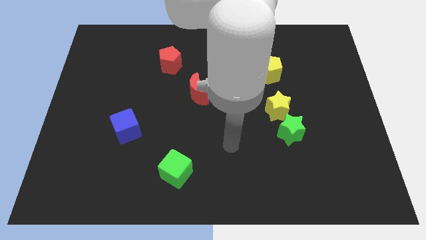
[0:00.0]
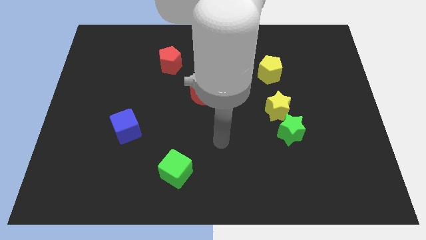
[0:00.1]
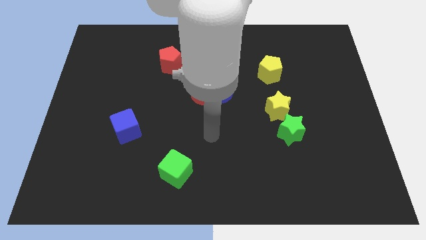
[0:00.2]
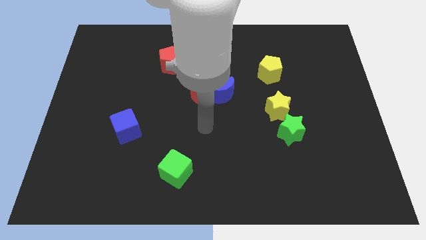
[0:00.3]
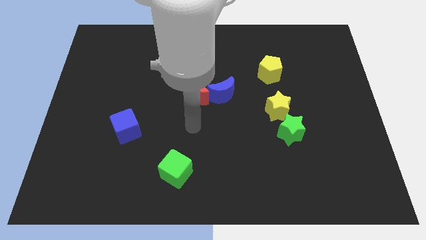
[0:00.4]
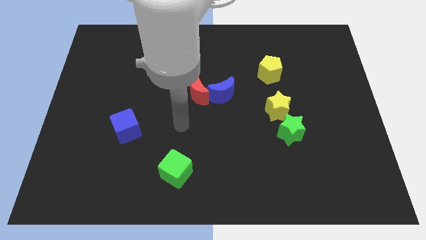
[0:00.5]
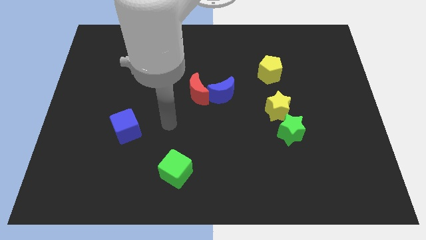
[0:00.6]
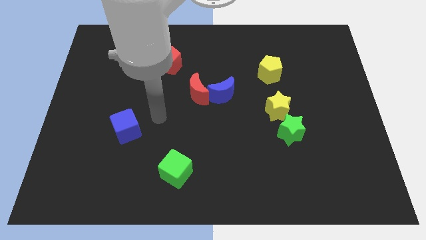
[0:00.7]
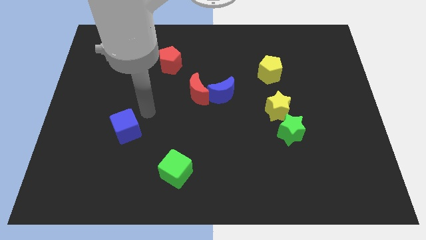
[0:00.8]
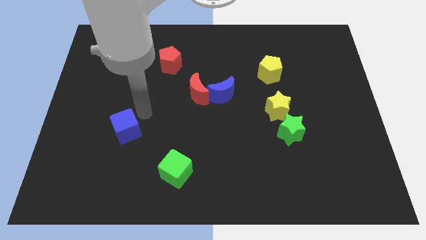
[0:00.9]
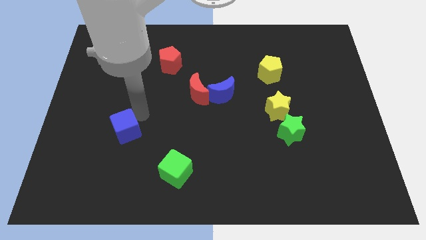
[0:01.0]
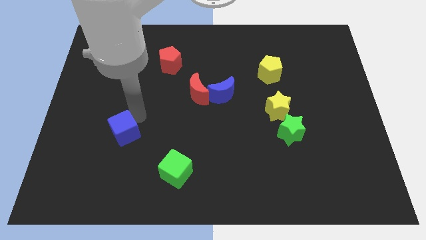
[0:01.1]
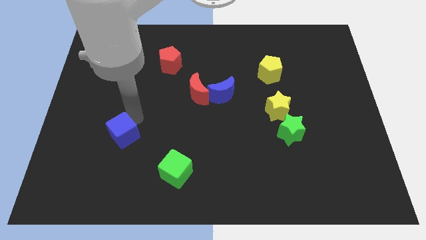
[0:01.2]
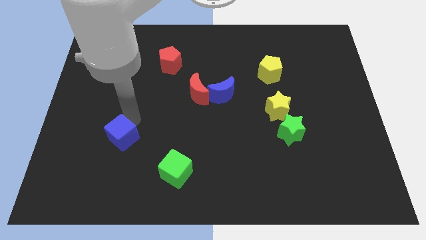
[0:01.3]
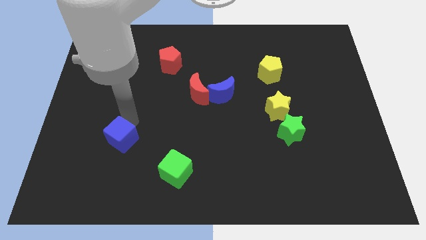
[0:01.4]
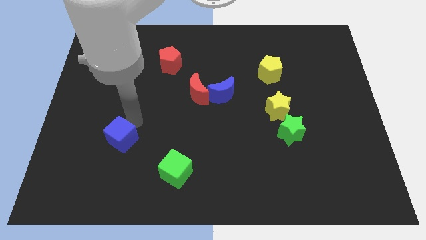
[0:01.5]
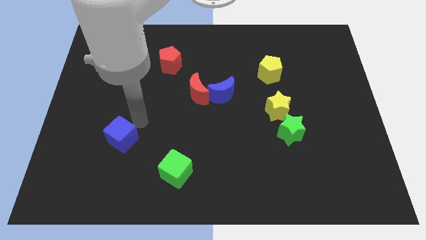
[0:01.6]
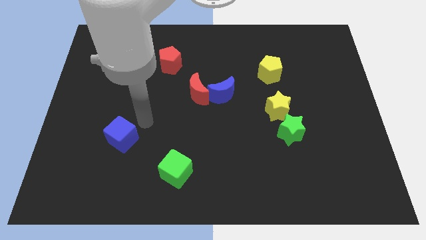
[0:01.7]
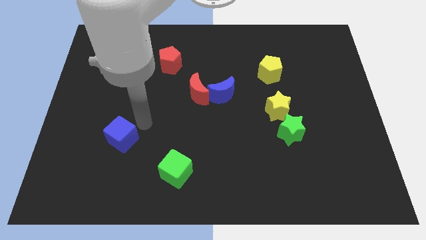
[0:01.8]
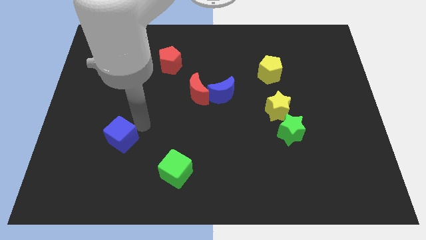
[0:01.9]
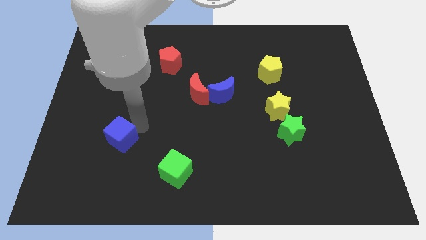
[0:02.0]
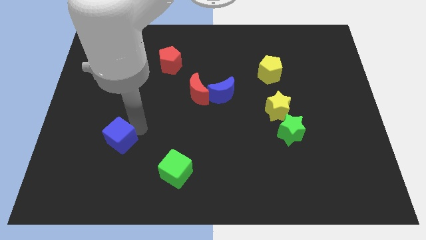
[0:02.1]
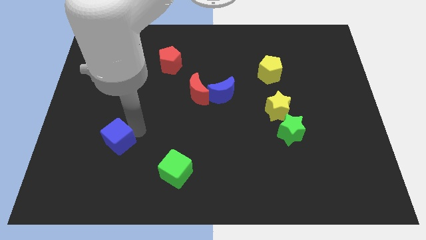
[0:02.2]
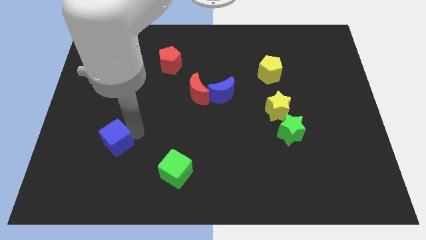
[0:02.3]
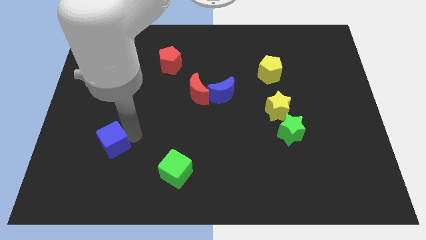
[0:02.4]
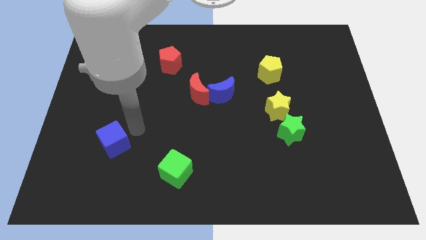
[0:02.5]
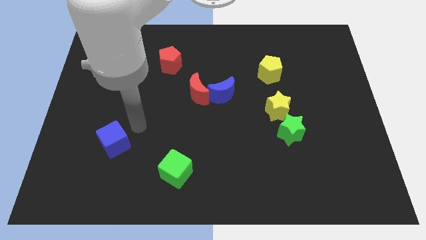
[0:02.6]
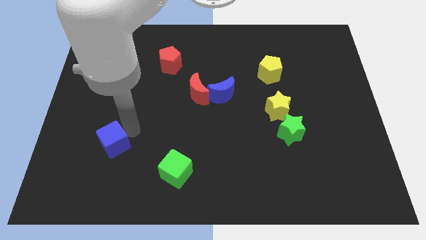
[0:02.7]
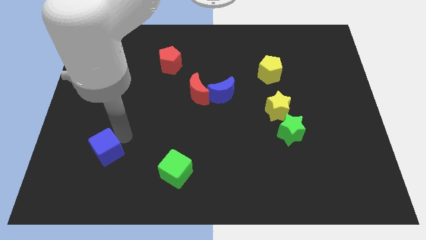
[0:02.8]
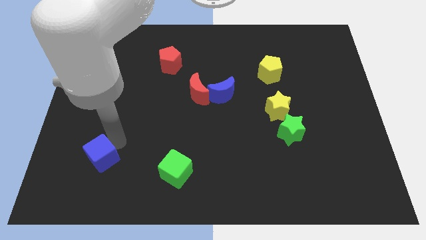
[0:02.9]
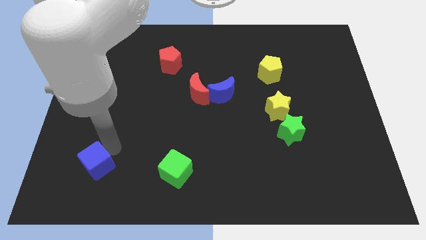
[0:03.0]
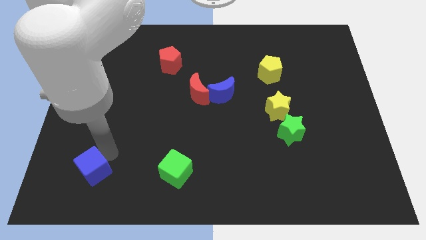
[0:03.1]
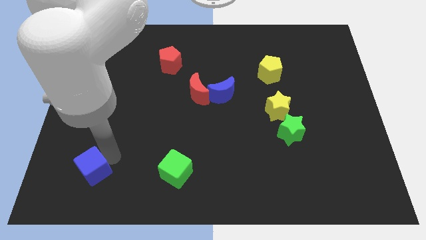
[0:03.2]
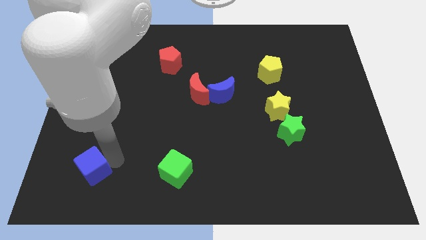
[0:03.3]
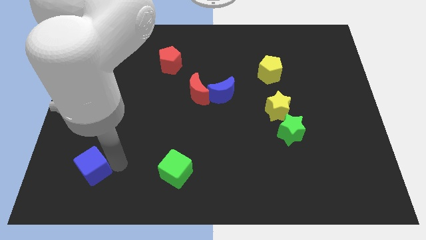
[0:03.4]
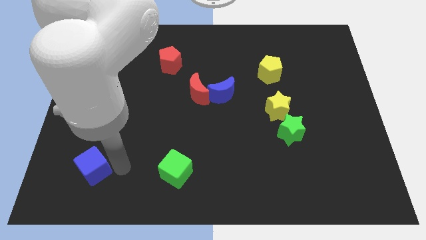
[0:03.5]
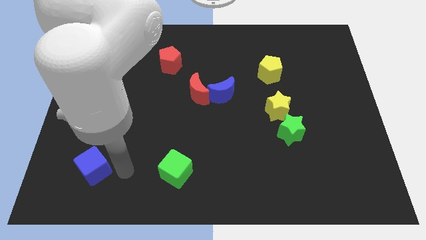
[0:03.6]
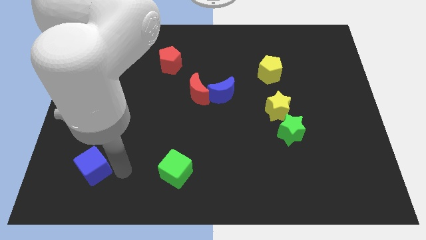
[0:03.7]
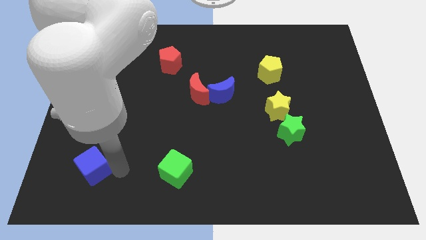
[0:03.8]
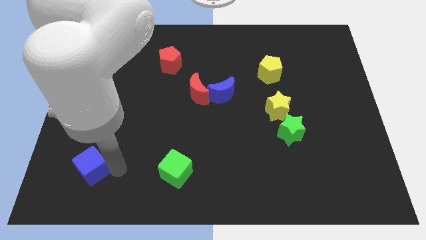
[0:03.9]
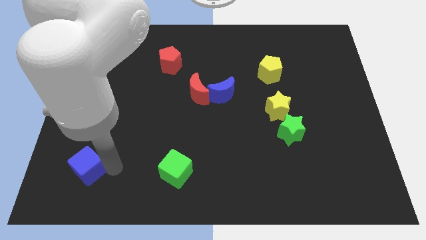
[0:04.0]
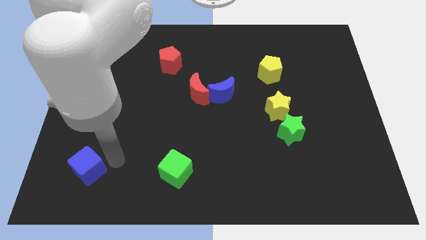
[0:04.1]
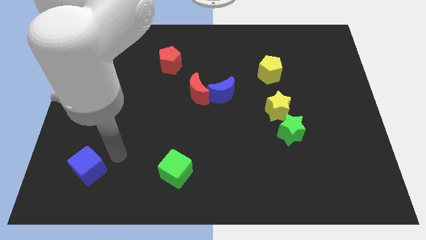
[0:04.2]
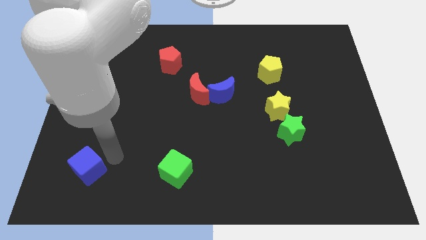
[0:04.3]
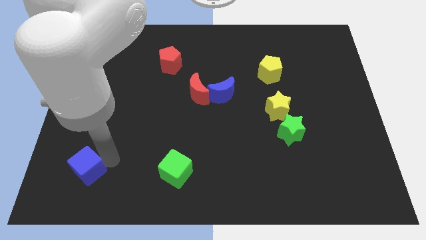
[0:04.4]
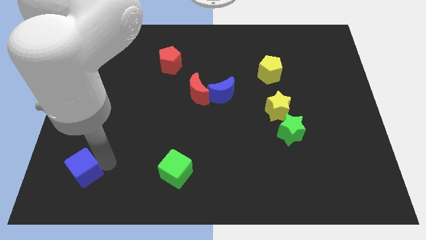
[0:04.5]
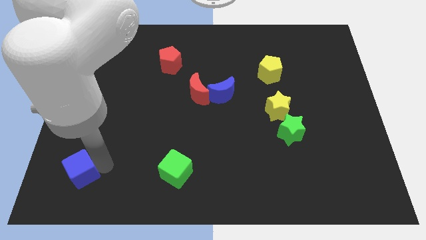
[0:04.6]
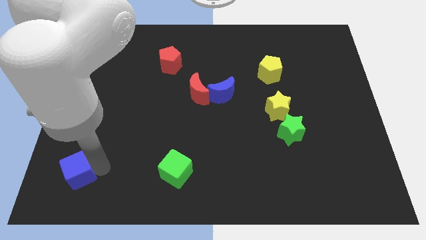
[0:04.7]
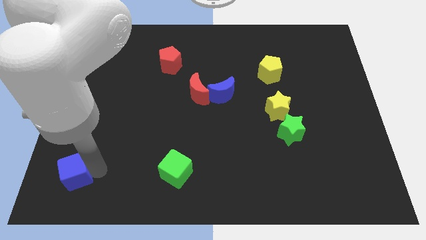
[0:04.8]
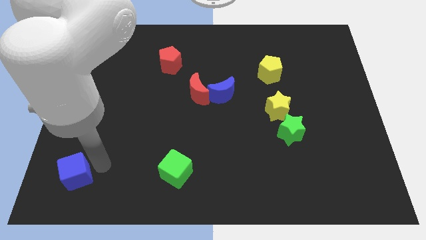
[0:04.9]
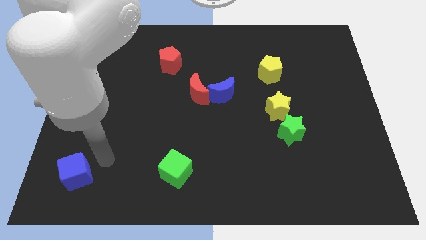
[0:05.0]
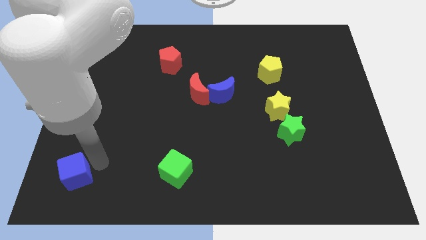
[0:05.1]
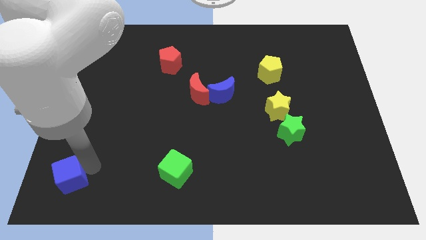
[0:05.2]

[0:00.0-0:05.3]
push the blue cube to the bottom left

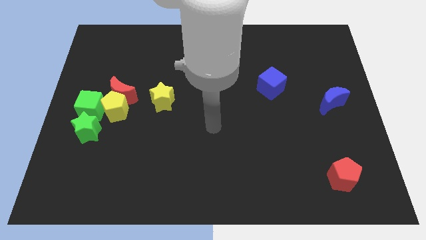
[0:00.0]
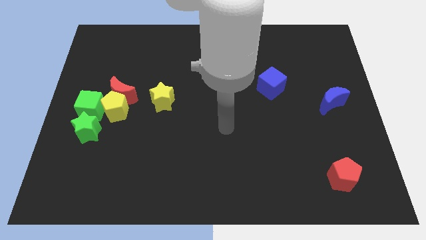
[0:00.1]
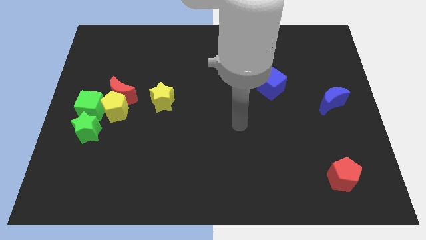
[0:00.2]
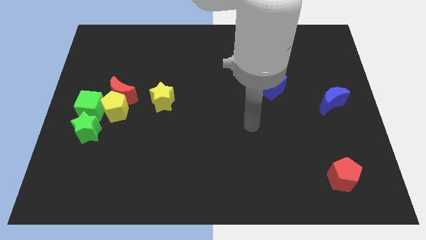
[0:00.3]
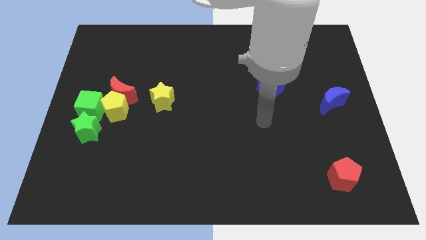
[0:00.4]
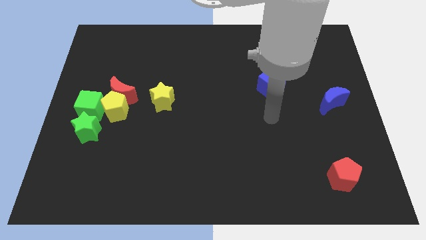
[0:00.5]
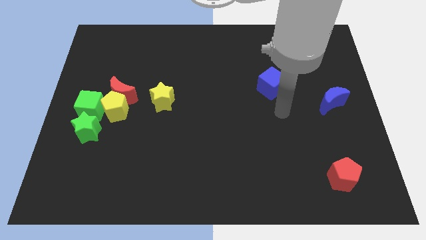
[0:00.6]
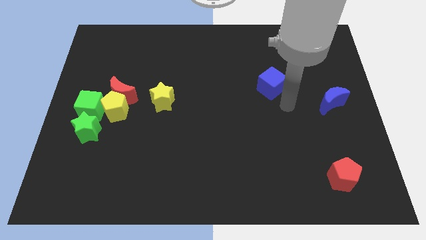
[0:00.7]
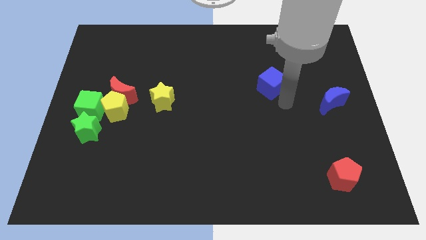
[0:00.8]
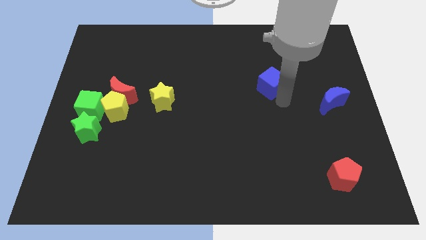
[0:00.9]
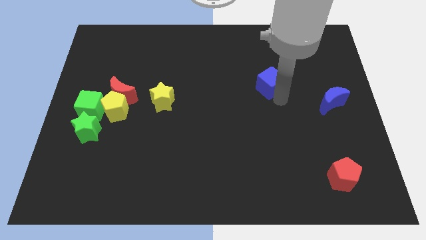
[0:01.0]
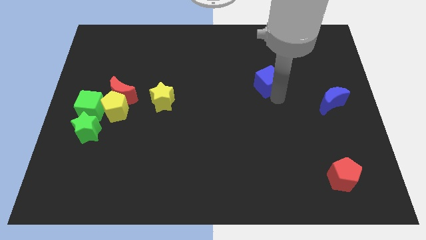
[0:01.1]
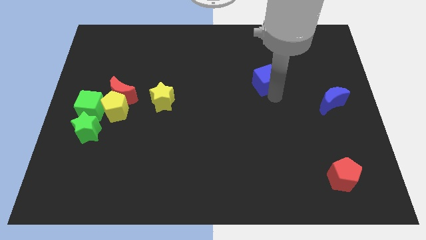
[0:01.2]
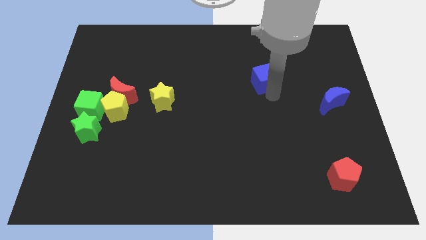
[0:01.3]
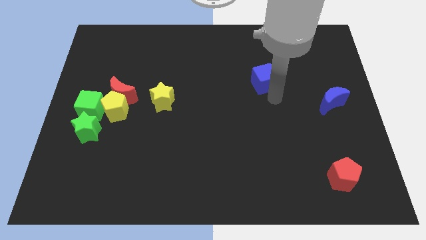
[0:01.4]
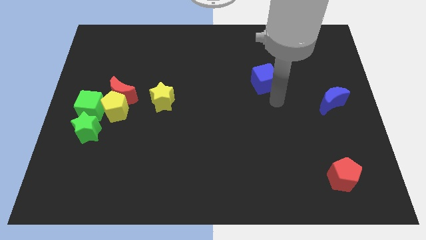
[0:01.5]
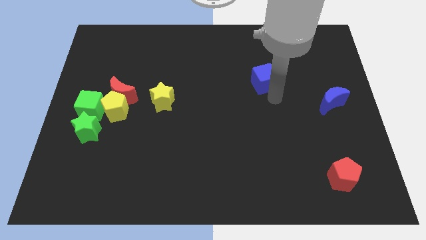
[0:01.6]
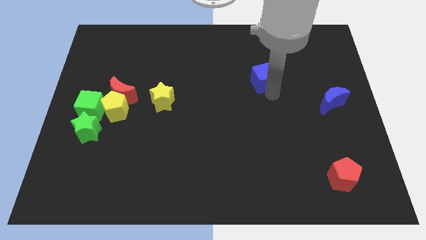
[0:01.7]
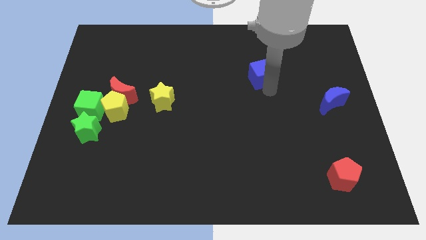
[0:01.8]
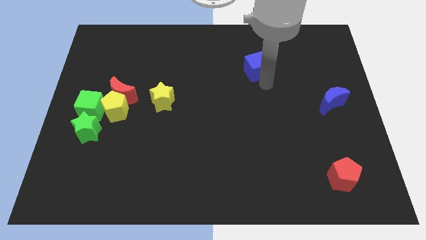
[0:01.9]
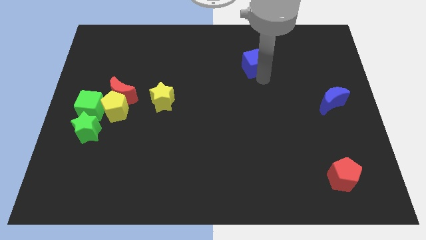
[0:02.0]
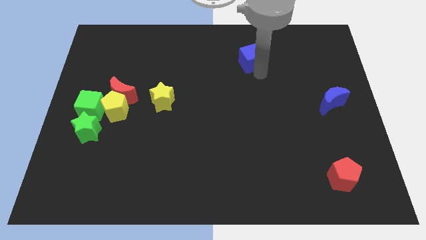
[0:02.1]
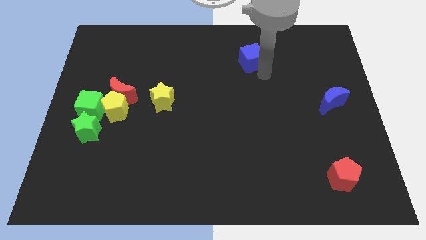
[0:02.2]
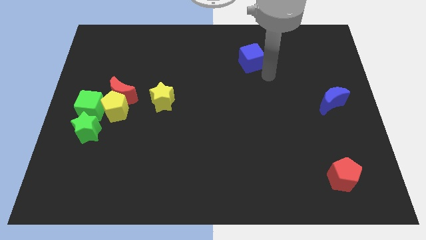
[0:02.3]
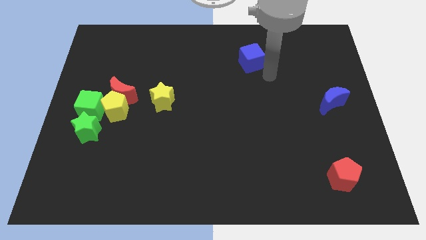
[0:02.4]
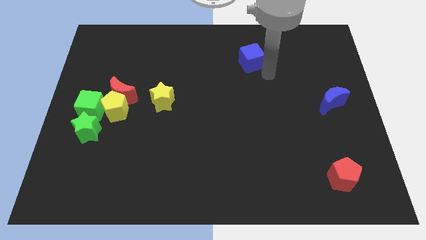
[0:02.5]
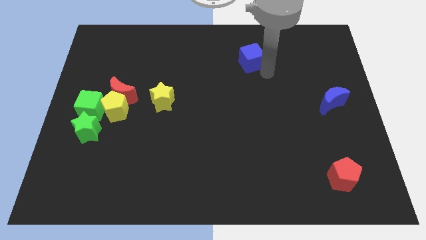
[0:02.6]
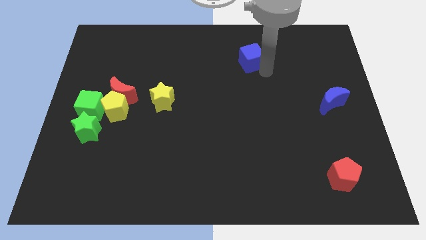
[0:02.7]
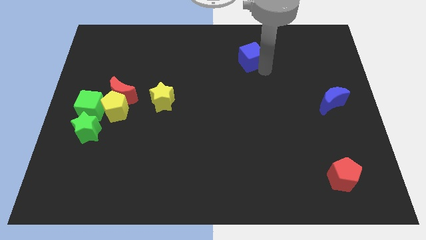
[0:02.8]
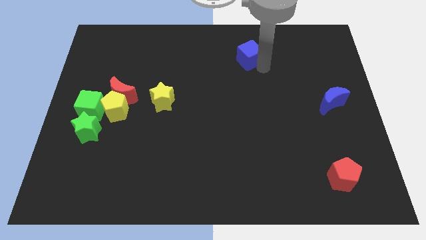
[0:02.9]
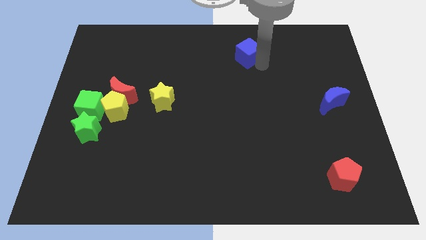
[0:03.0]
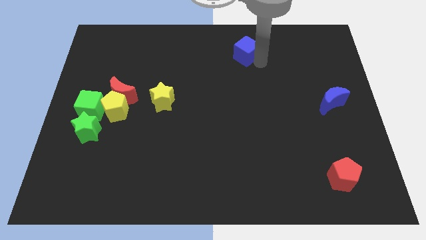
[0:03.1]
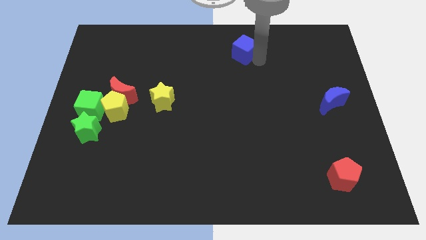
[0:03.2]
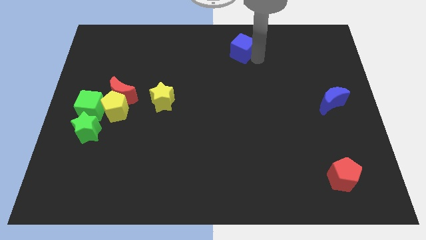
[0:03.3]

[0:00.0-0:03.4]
push the blue cube to the top side
